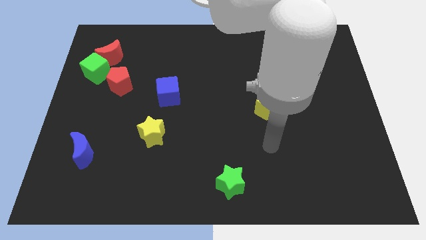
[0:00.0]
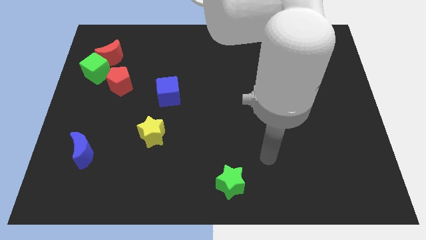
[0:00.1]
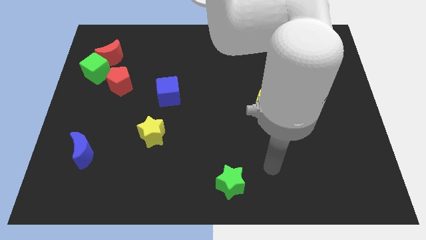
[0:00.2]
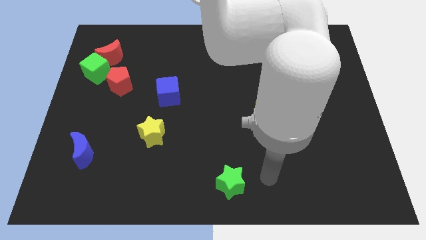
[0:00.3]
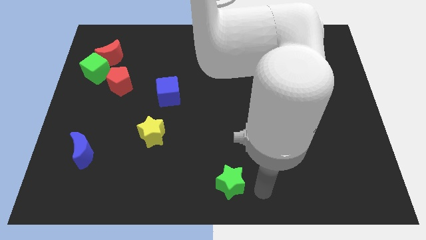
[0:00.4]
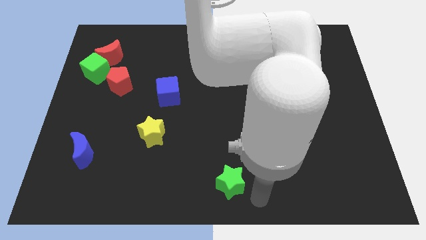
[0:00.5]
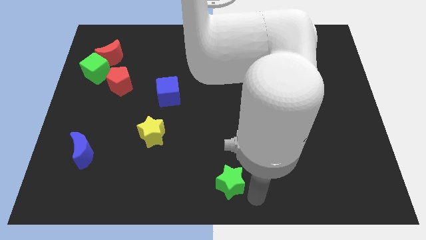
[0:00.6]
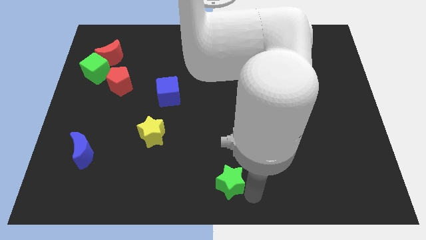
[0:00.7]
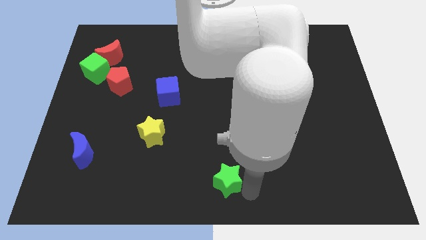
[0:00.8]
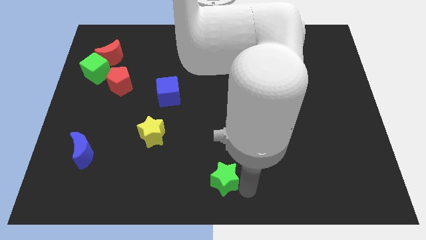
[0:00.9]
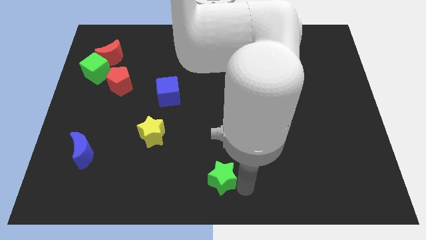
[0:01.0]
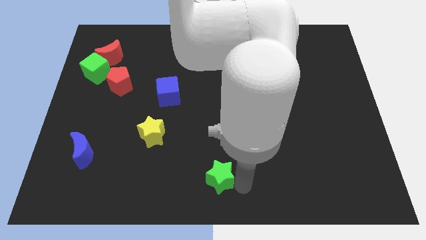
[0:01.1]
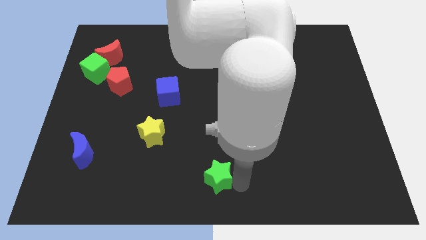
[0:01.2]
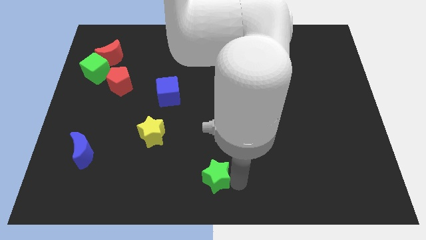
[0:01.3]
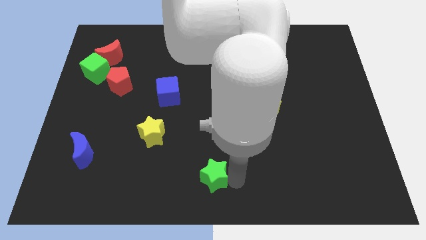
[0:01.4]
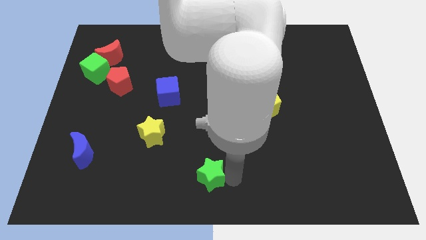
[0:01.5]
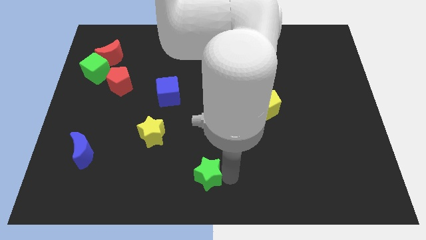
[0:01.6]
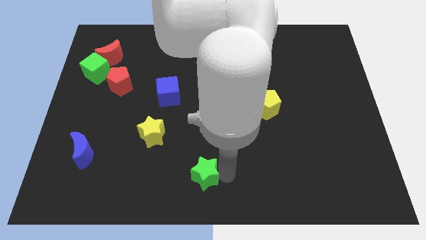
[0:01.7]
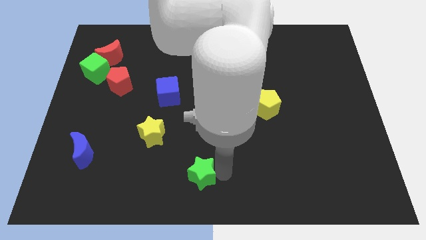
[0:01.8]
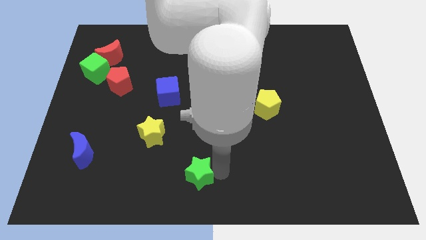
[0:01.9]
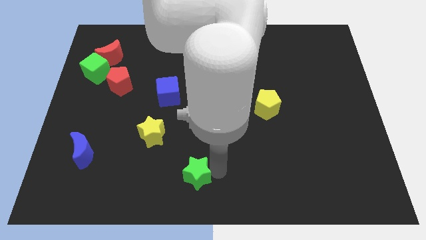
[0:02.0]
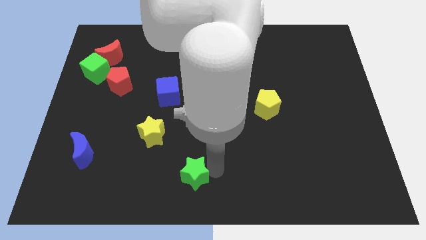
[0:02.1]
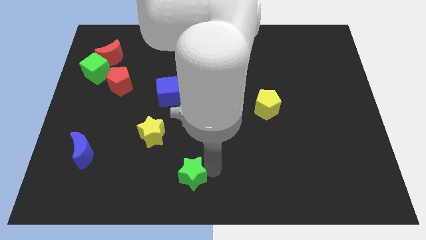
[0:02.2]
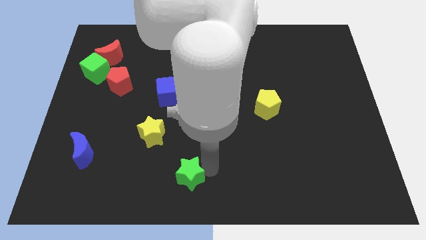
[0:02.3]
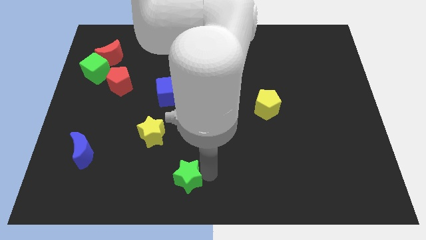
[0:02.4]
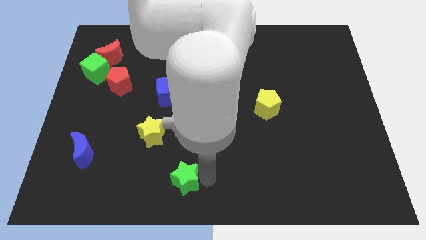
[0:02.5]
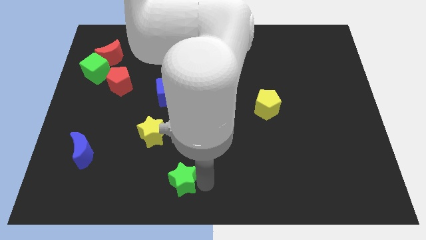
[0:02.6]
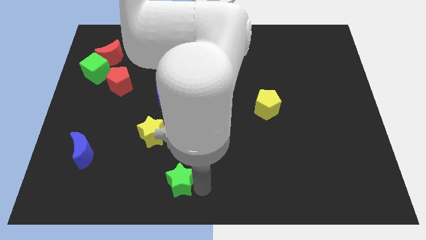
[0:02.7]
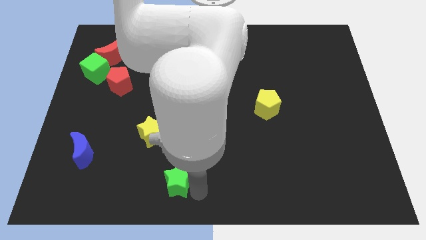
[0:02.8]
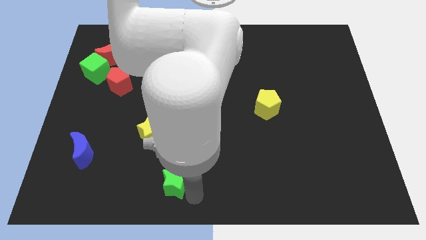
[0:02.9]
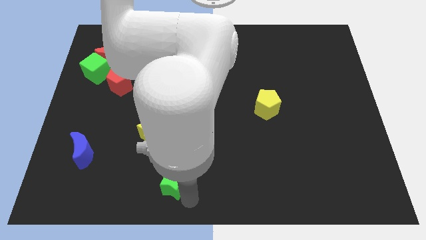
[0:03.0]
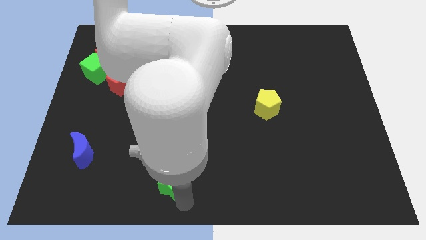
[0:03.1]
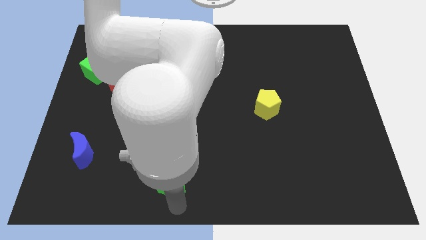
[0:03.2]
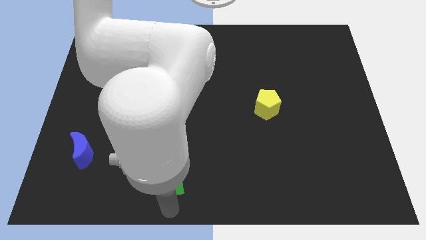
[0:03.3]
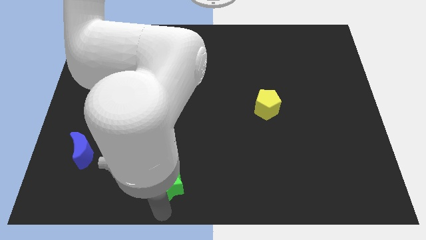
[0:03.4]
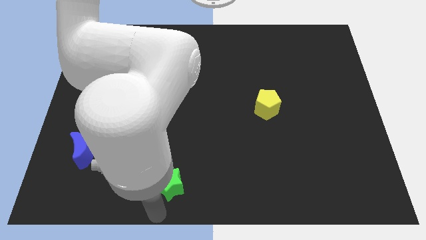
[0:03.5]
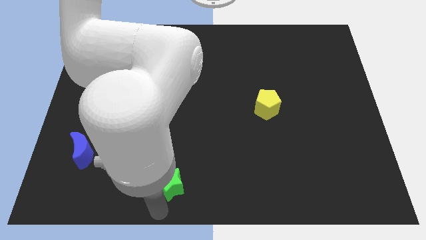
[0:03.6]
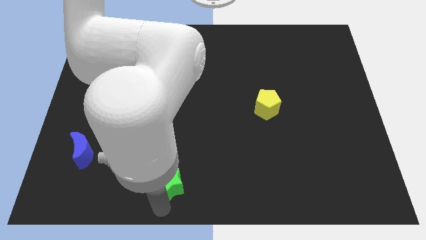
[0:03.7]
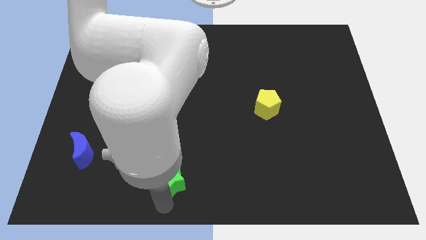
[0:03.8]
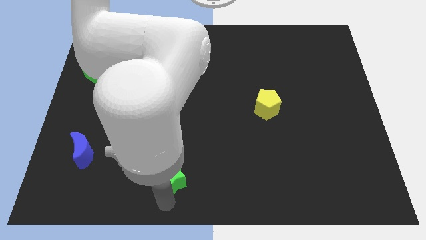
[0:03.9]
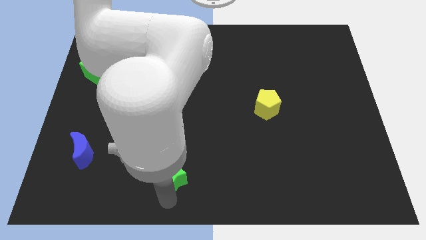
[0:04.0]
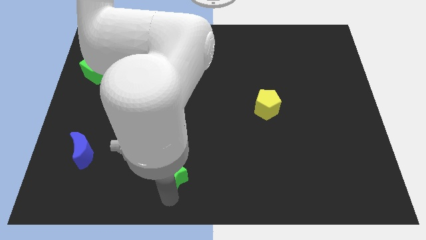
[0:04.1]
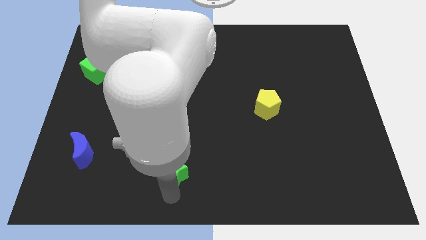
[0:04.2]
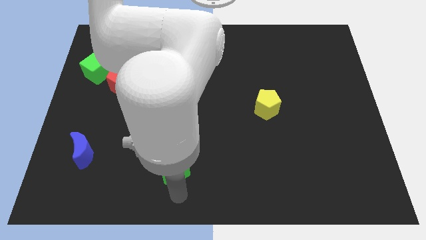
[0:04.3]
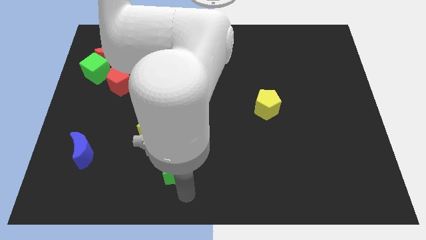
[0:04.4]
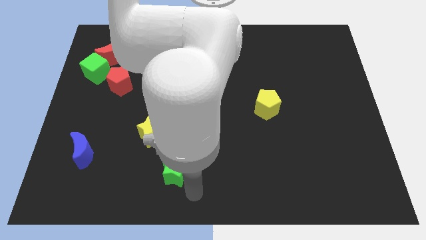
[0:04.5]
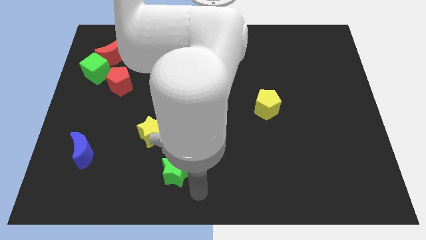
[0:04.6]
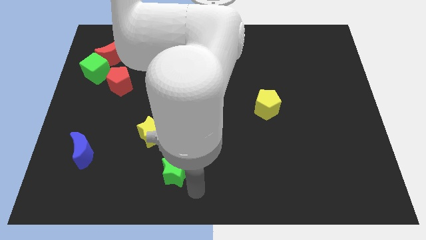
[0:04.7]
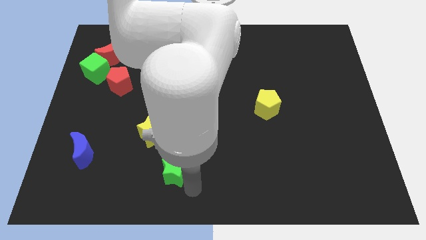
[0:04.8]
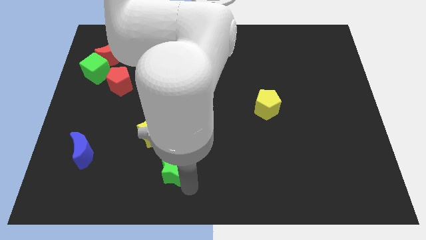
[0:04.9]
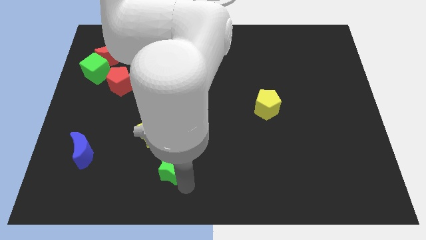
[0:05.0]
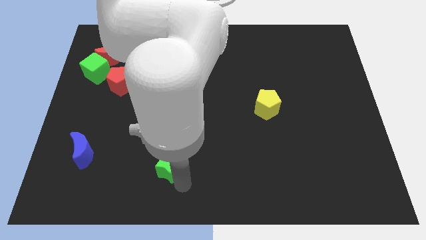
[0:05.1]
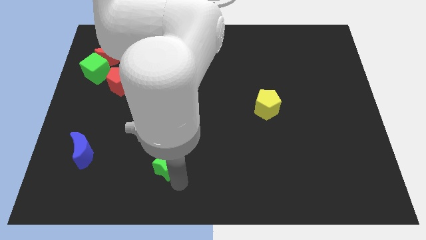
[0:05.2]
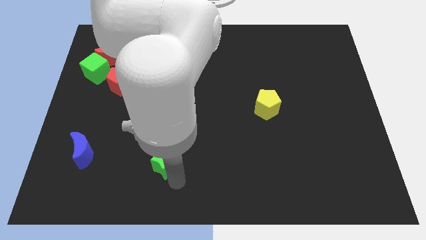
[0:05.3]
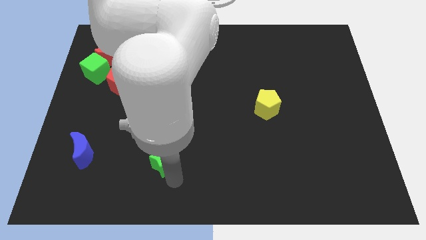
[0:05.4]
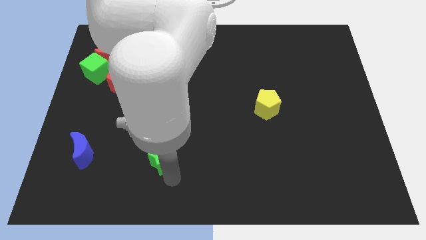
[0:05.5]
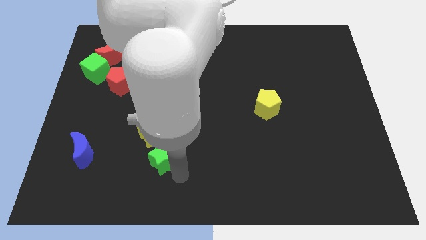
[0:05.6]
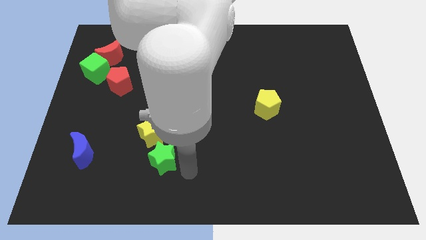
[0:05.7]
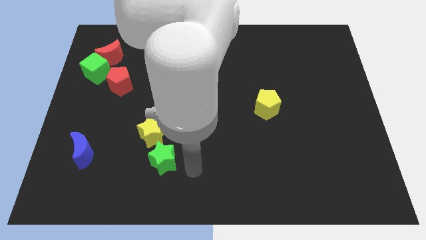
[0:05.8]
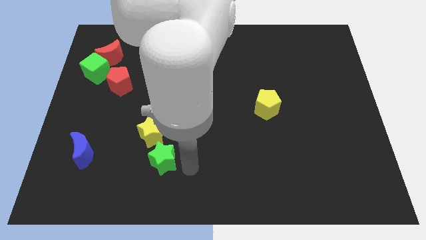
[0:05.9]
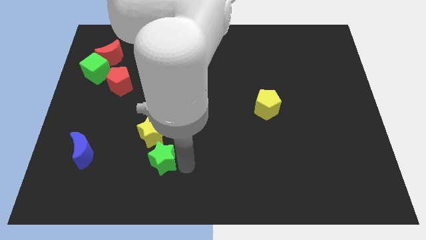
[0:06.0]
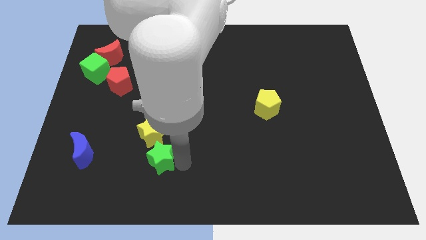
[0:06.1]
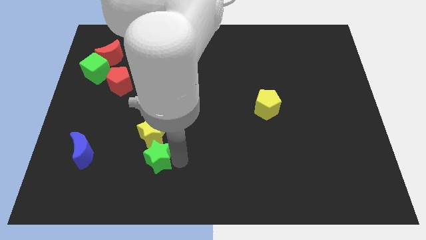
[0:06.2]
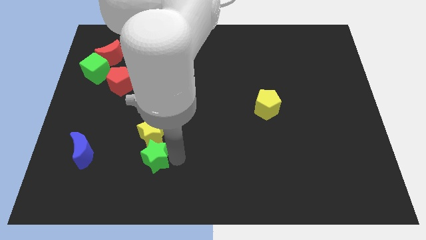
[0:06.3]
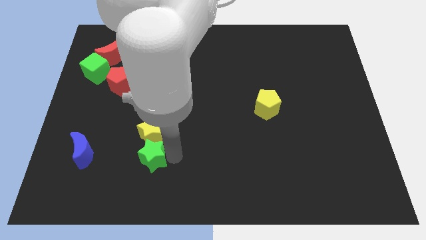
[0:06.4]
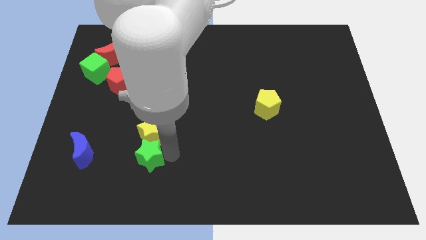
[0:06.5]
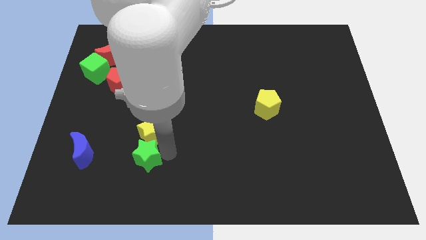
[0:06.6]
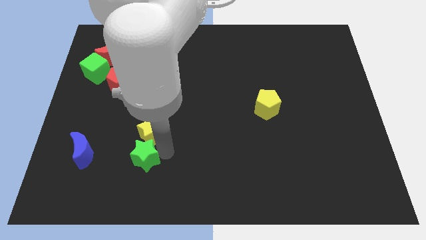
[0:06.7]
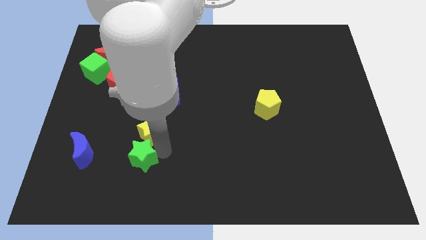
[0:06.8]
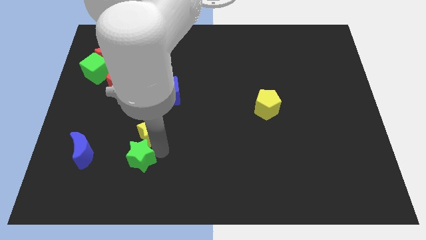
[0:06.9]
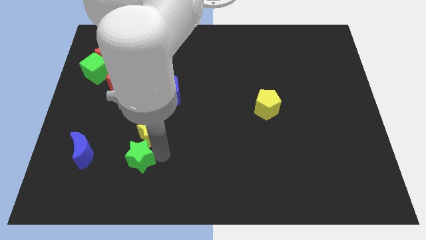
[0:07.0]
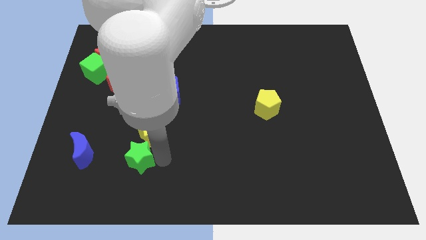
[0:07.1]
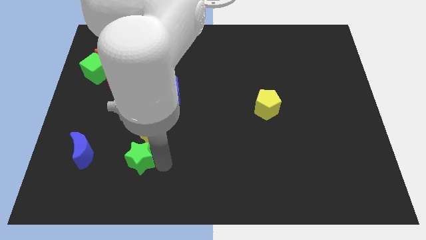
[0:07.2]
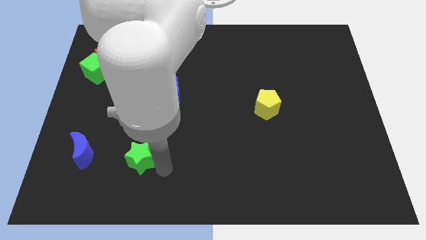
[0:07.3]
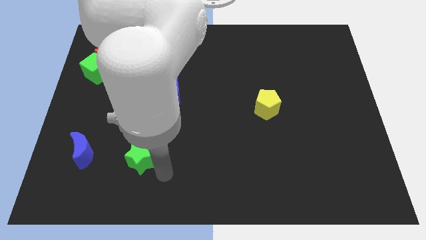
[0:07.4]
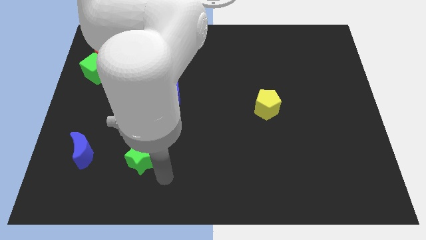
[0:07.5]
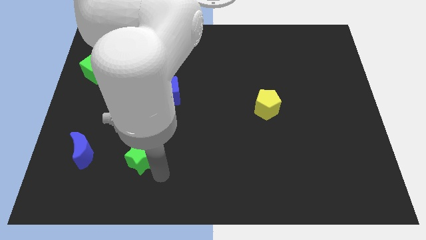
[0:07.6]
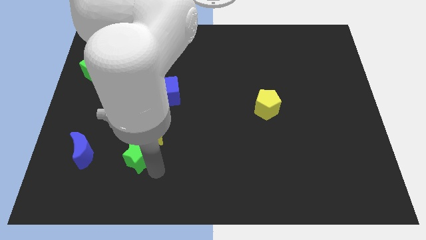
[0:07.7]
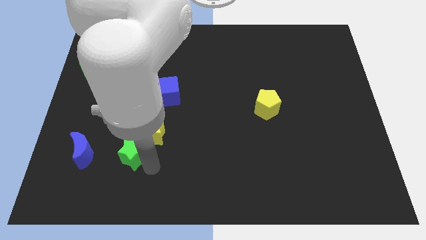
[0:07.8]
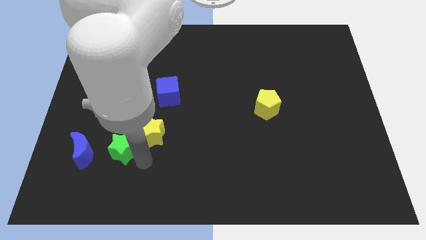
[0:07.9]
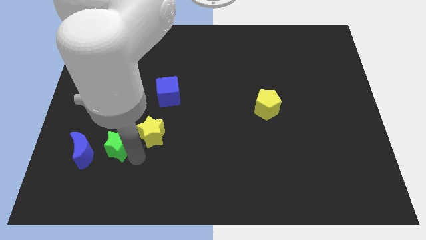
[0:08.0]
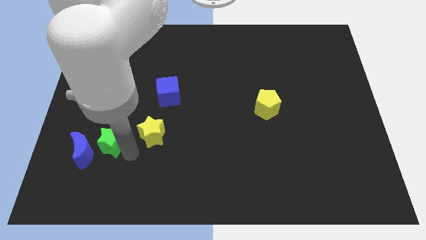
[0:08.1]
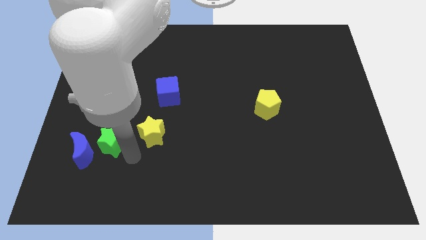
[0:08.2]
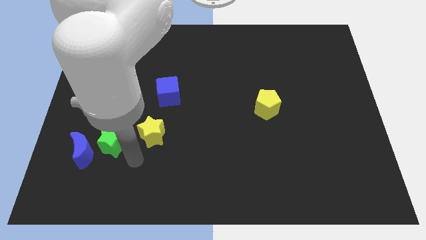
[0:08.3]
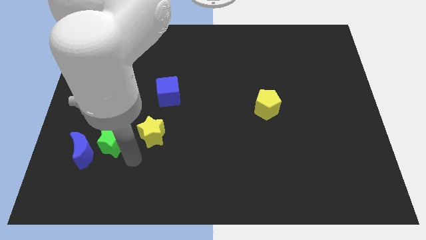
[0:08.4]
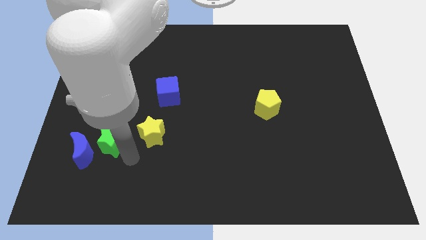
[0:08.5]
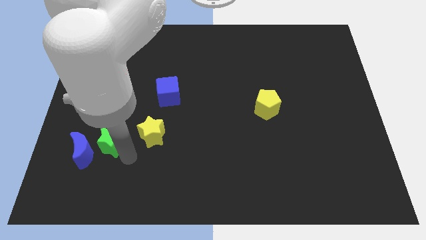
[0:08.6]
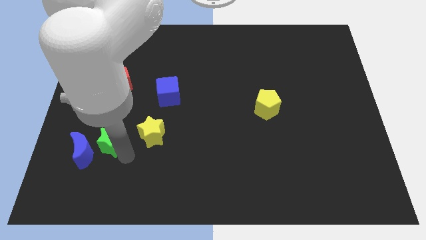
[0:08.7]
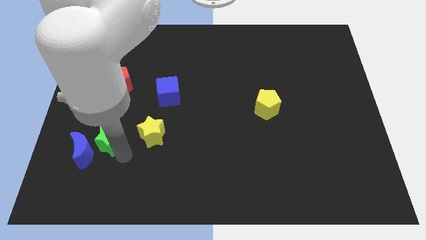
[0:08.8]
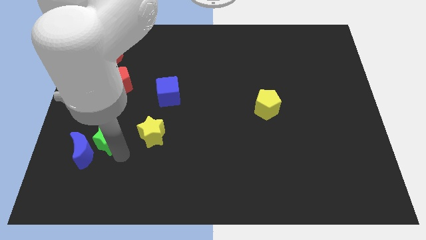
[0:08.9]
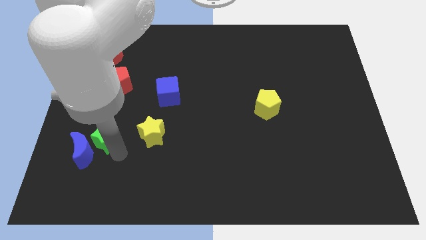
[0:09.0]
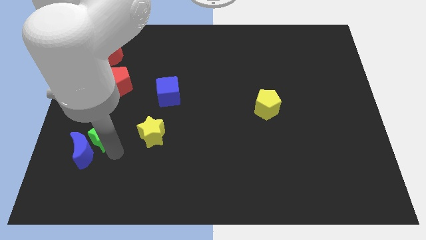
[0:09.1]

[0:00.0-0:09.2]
move the green star above the blue moon
